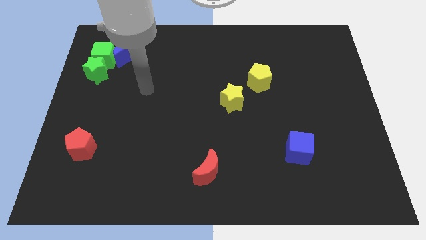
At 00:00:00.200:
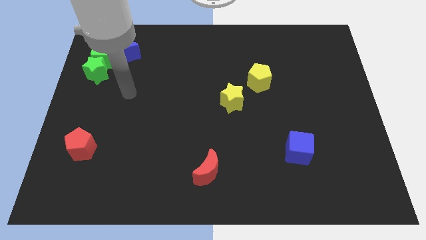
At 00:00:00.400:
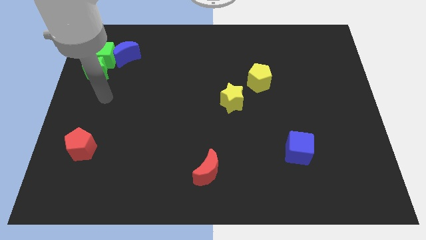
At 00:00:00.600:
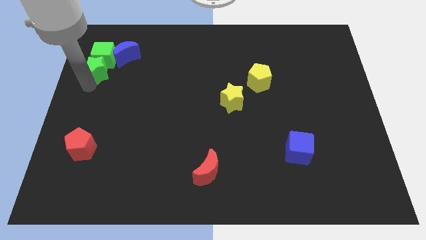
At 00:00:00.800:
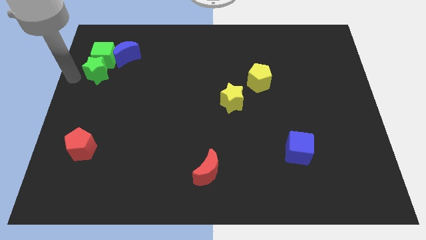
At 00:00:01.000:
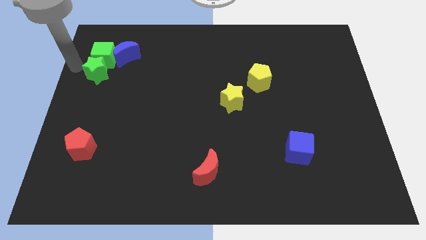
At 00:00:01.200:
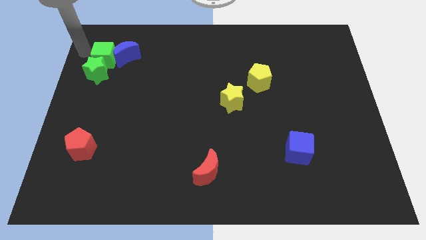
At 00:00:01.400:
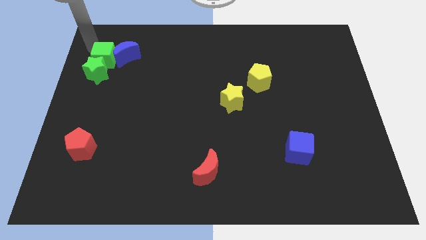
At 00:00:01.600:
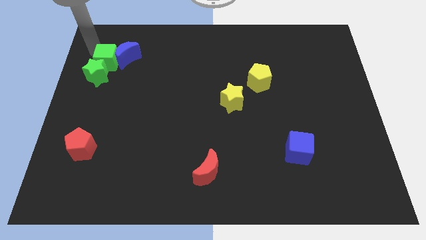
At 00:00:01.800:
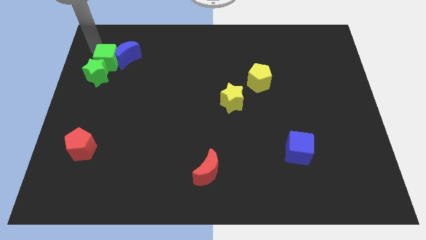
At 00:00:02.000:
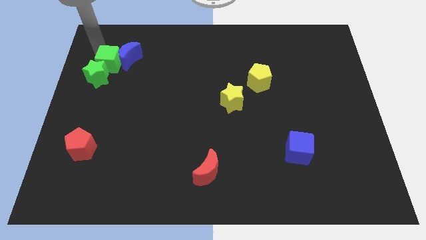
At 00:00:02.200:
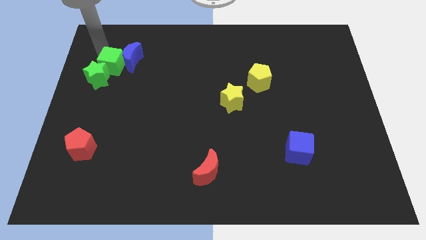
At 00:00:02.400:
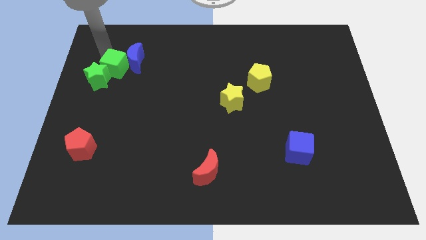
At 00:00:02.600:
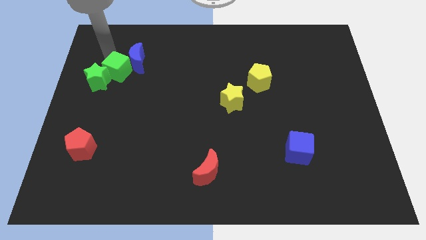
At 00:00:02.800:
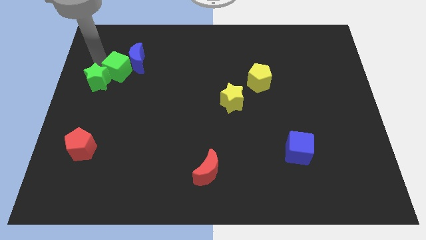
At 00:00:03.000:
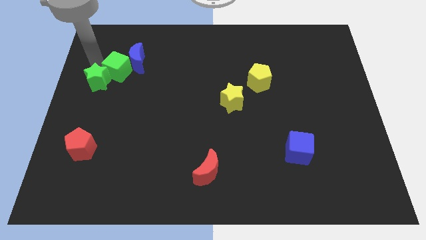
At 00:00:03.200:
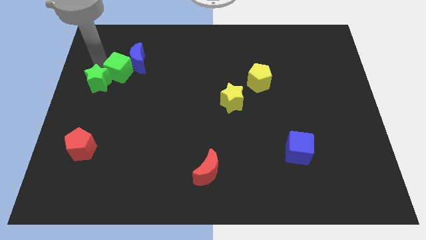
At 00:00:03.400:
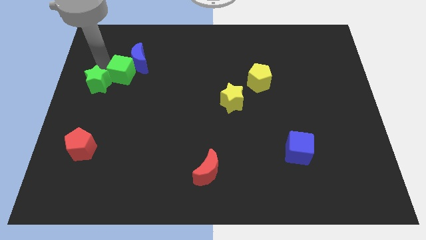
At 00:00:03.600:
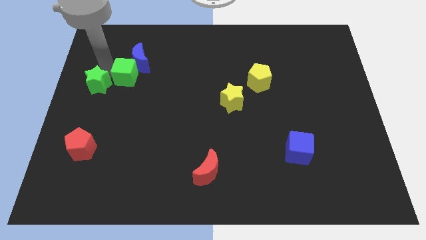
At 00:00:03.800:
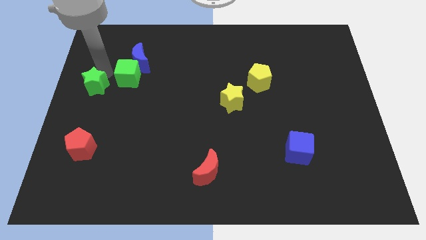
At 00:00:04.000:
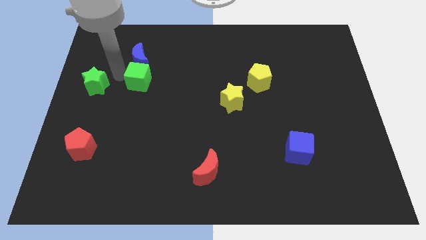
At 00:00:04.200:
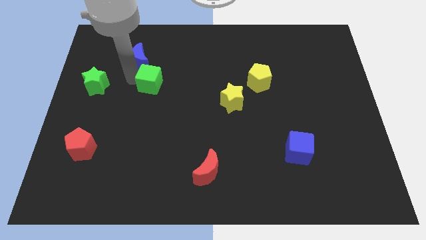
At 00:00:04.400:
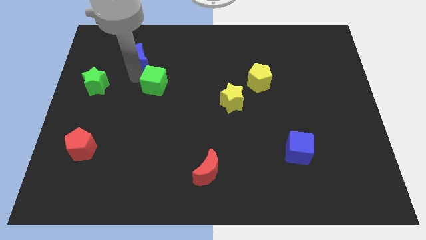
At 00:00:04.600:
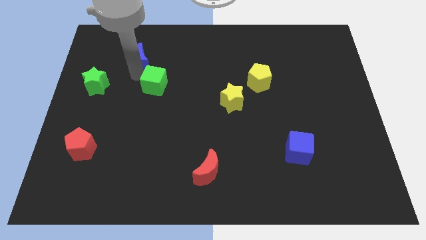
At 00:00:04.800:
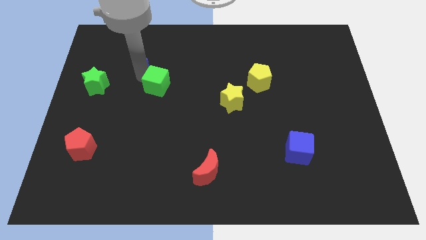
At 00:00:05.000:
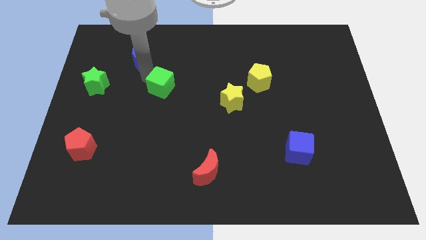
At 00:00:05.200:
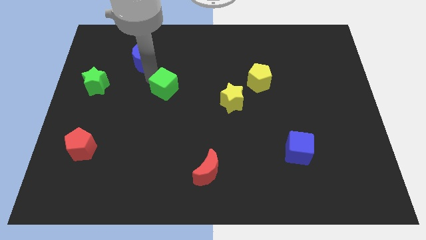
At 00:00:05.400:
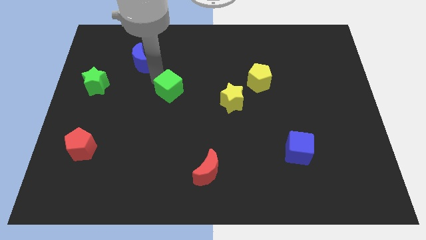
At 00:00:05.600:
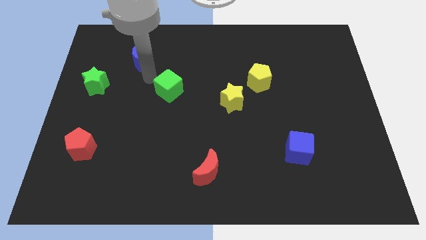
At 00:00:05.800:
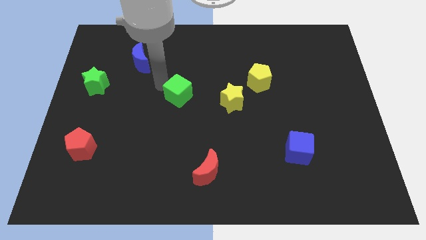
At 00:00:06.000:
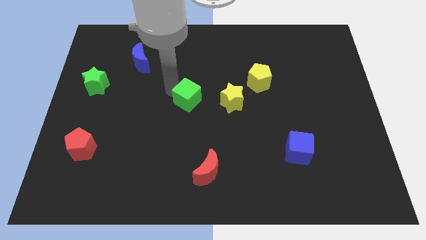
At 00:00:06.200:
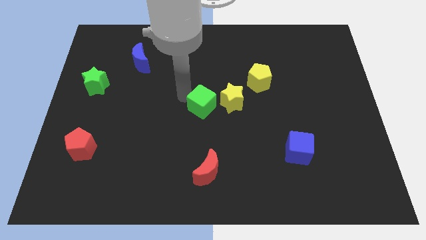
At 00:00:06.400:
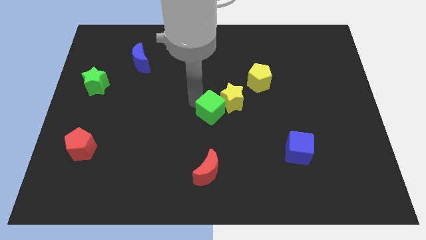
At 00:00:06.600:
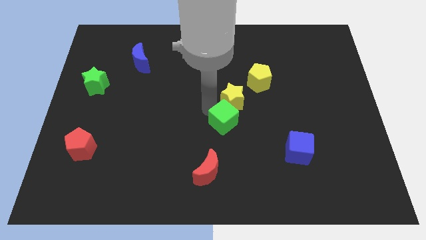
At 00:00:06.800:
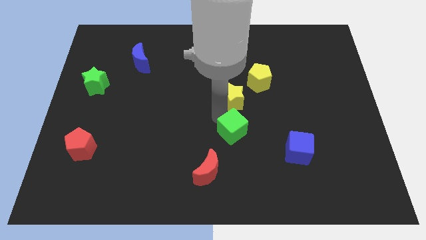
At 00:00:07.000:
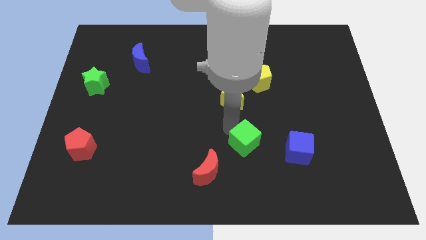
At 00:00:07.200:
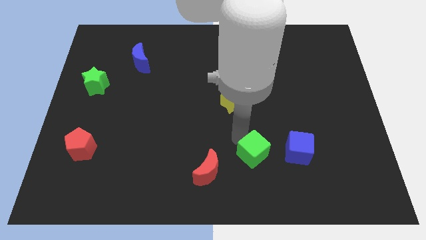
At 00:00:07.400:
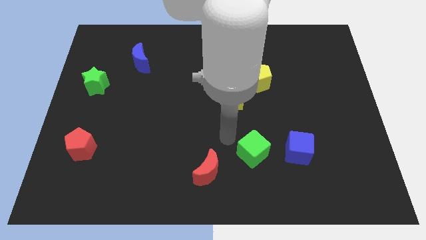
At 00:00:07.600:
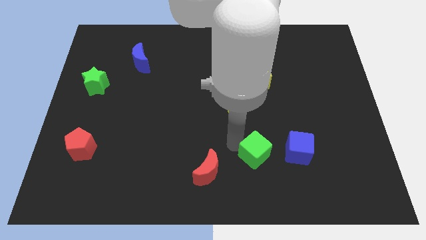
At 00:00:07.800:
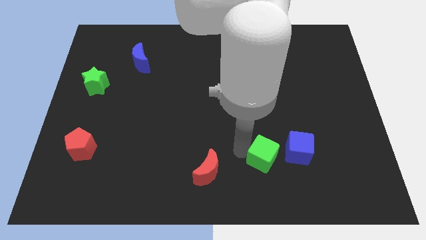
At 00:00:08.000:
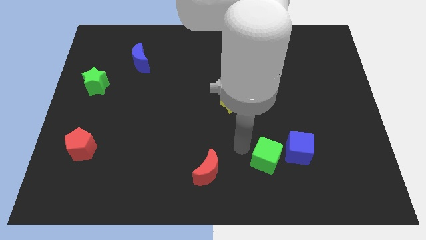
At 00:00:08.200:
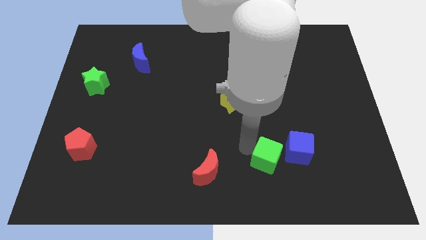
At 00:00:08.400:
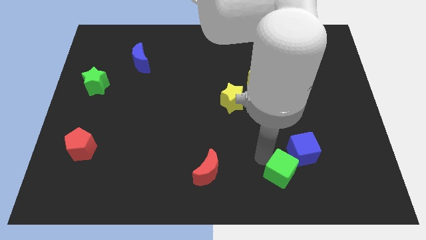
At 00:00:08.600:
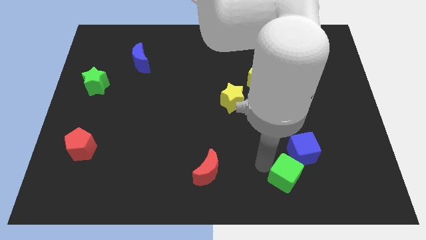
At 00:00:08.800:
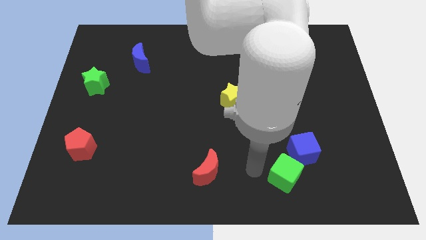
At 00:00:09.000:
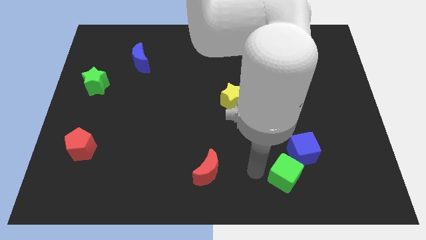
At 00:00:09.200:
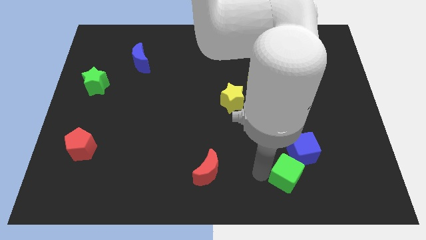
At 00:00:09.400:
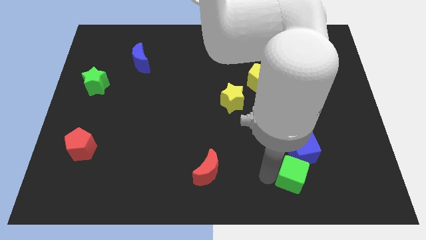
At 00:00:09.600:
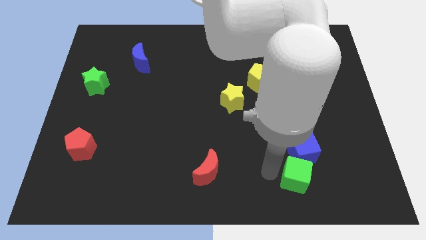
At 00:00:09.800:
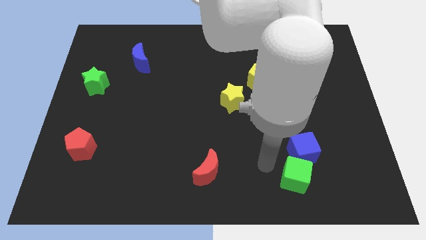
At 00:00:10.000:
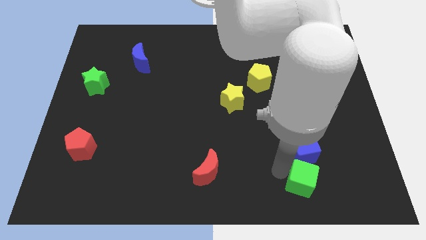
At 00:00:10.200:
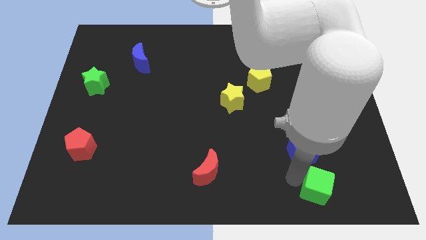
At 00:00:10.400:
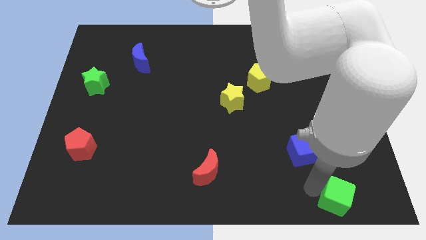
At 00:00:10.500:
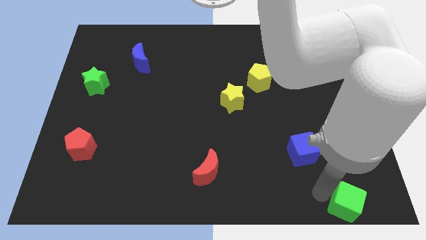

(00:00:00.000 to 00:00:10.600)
move the green cube to the bottom right corner

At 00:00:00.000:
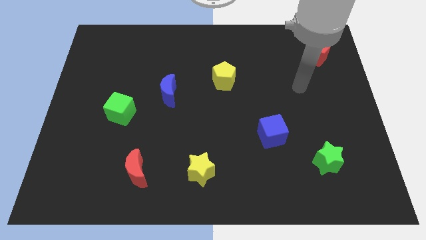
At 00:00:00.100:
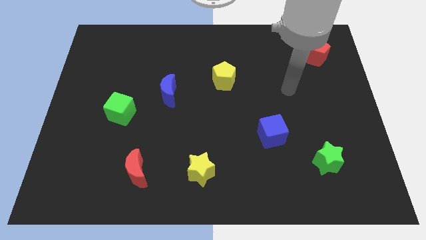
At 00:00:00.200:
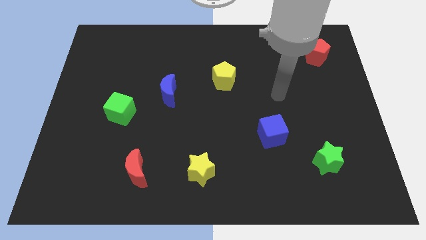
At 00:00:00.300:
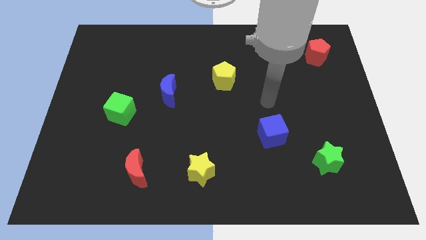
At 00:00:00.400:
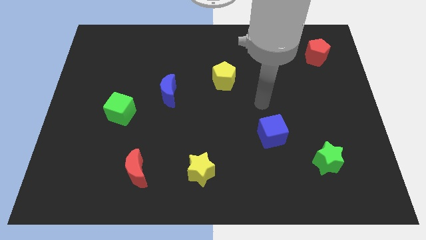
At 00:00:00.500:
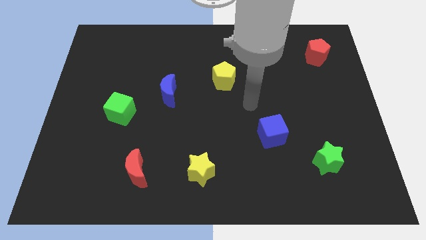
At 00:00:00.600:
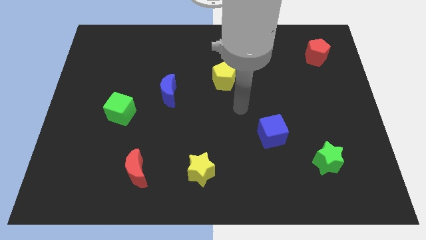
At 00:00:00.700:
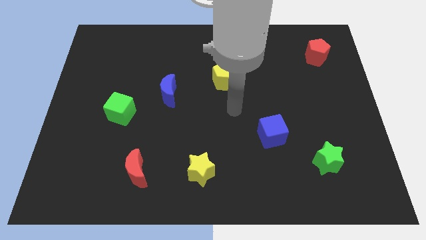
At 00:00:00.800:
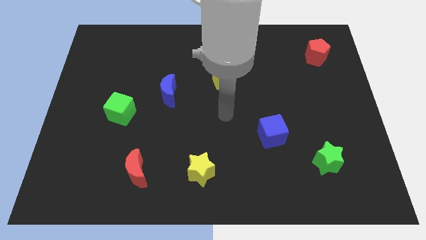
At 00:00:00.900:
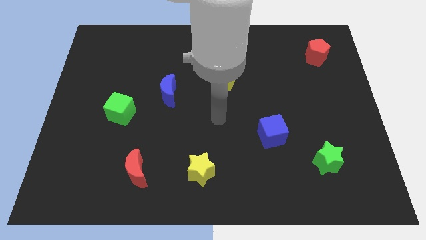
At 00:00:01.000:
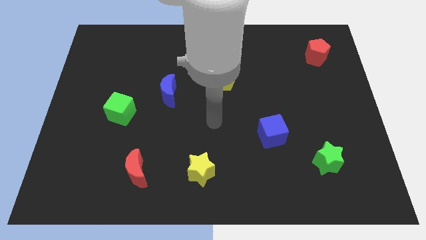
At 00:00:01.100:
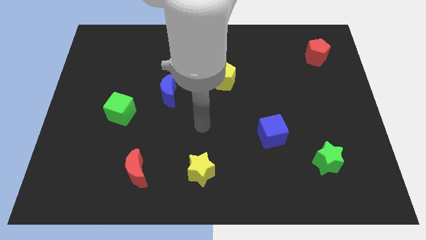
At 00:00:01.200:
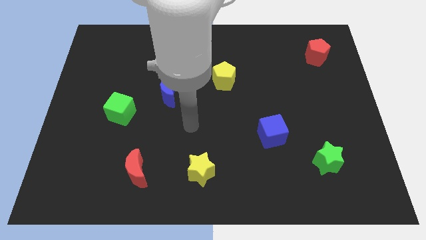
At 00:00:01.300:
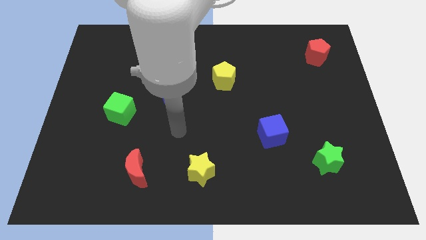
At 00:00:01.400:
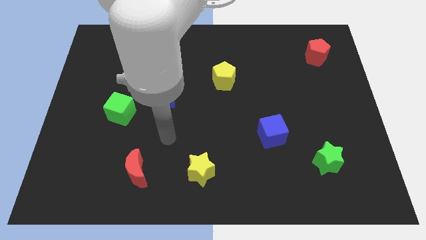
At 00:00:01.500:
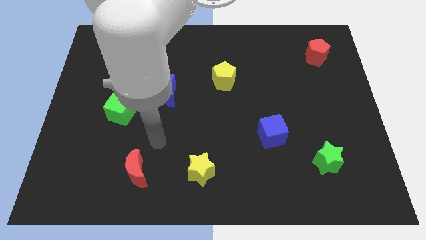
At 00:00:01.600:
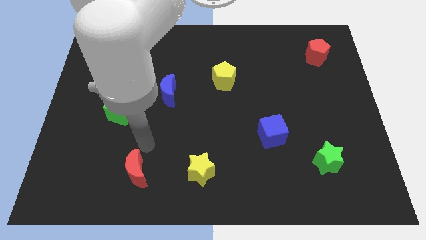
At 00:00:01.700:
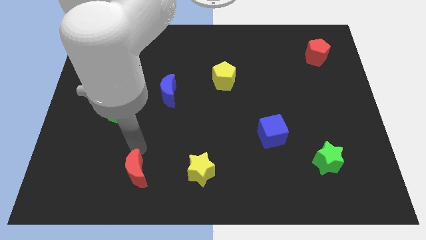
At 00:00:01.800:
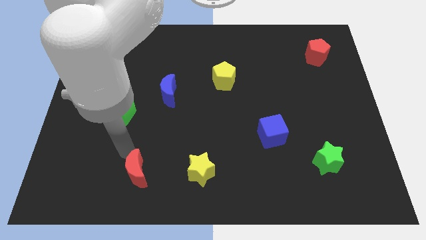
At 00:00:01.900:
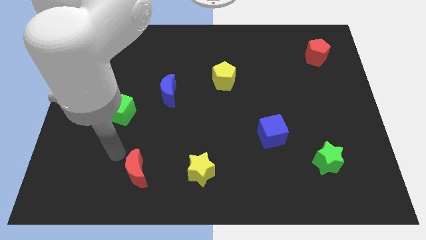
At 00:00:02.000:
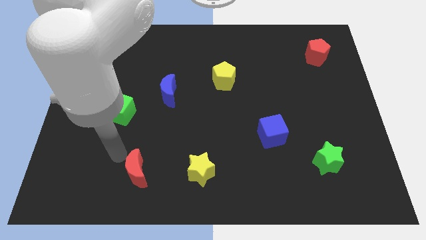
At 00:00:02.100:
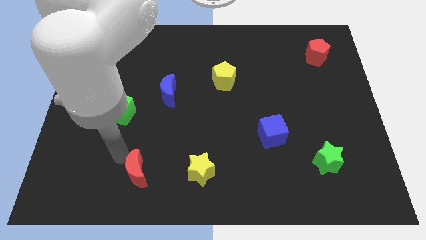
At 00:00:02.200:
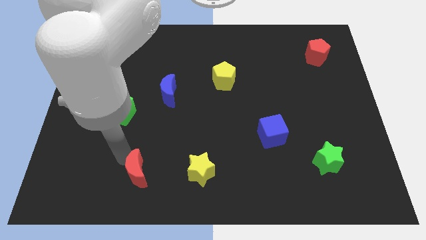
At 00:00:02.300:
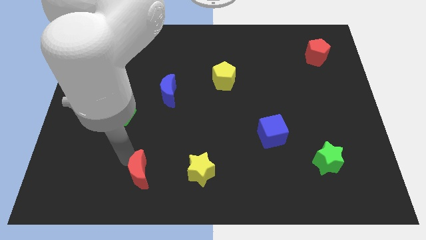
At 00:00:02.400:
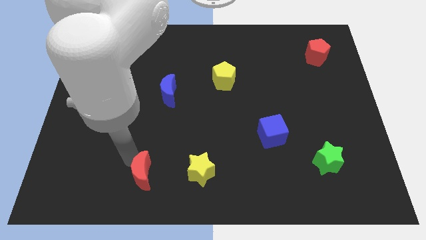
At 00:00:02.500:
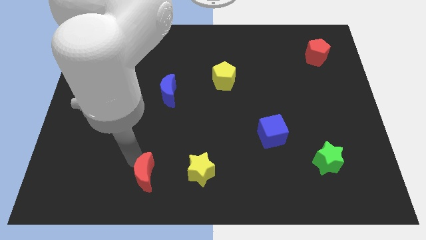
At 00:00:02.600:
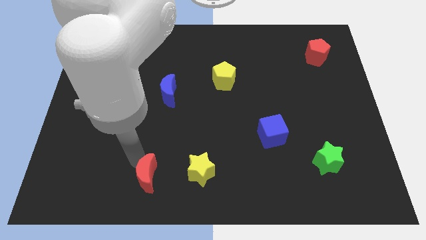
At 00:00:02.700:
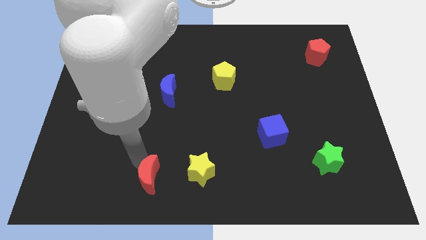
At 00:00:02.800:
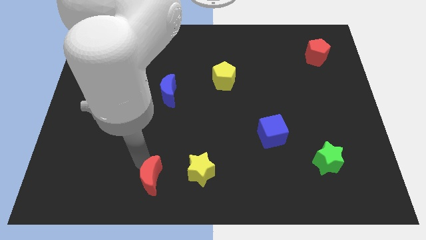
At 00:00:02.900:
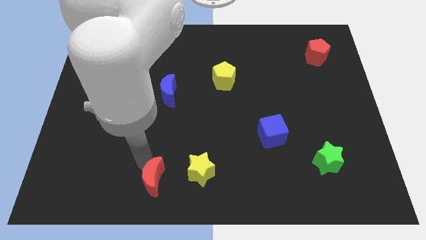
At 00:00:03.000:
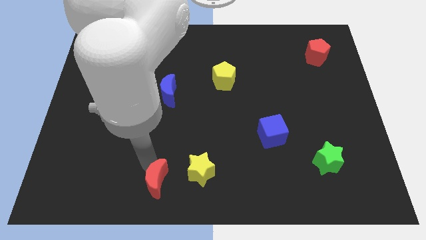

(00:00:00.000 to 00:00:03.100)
put the red moon to the bottom
